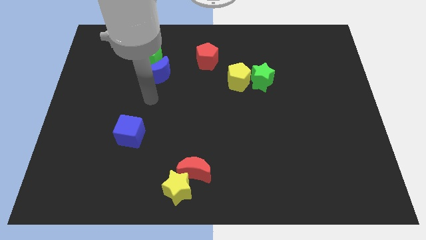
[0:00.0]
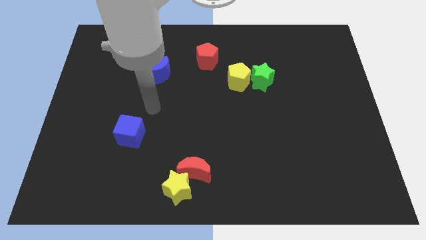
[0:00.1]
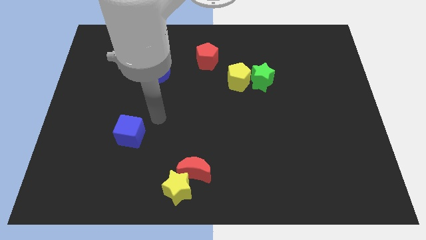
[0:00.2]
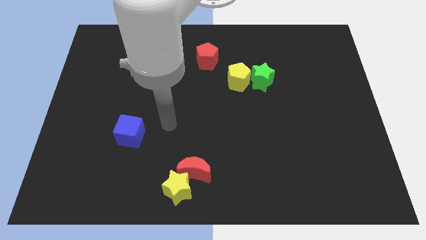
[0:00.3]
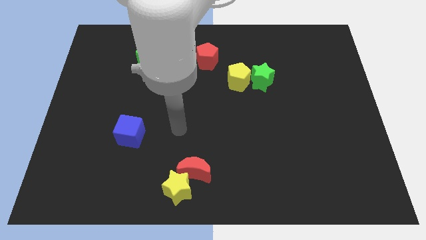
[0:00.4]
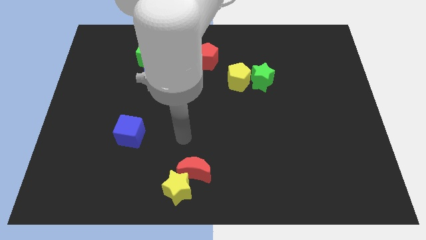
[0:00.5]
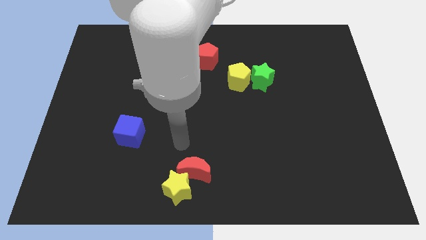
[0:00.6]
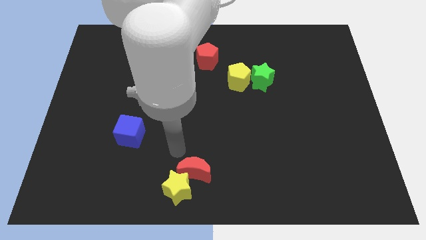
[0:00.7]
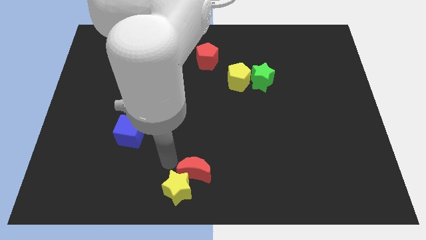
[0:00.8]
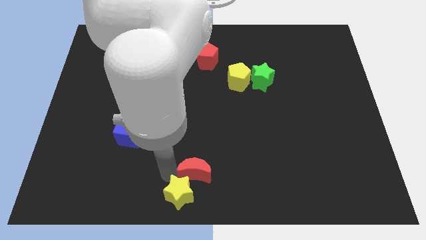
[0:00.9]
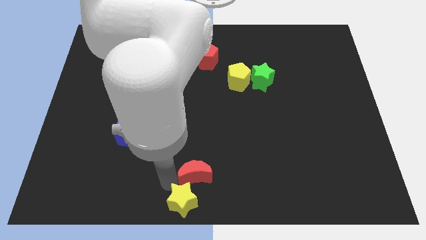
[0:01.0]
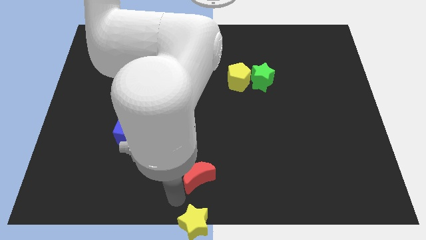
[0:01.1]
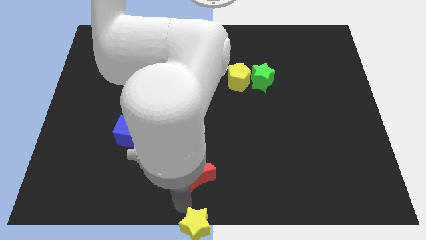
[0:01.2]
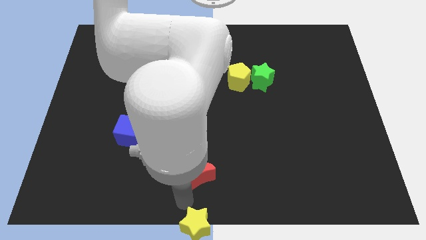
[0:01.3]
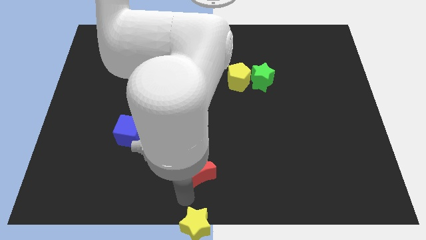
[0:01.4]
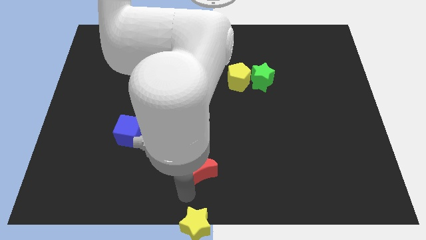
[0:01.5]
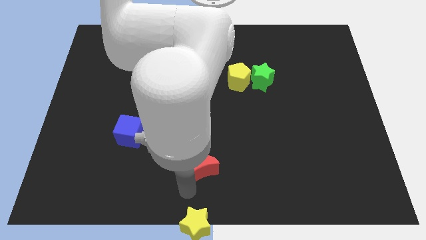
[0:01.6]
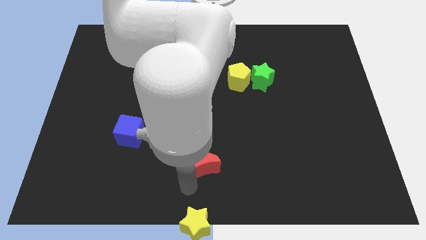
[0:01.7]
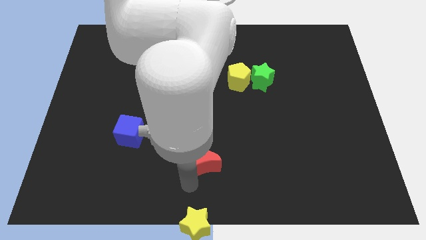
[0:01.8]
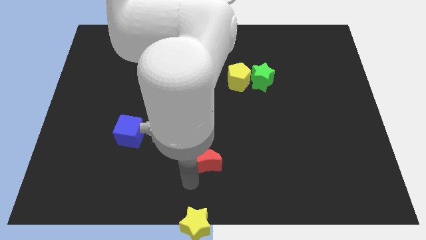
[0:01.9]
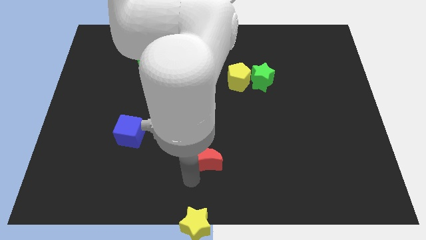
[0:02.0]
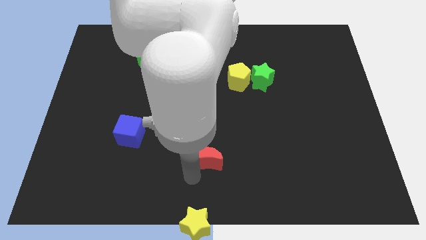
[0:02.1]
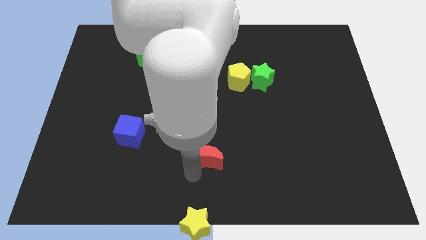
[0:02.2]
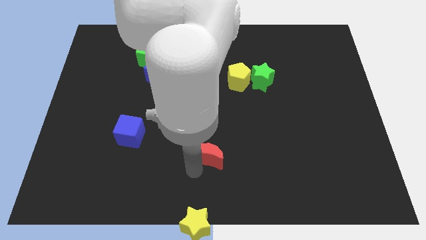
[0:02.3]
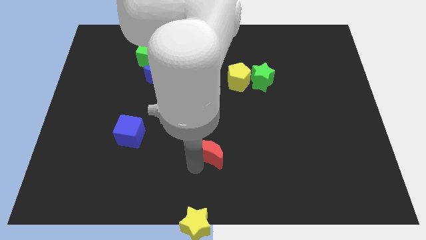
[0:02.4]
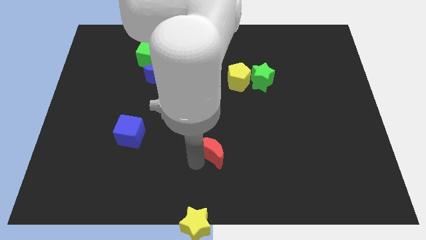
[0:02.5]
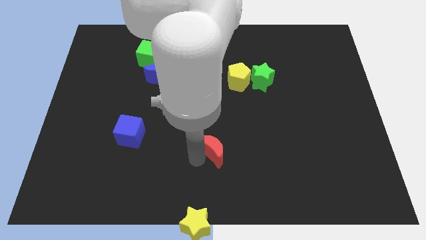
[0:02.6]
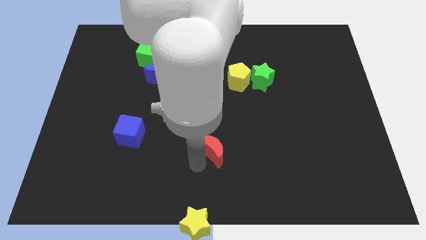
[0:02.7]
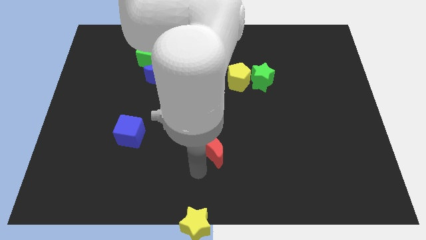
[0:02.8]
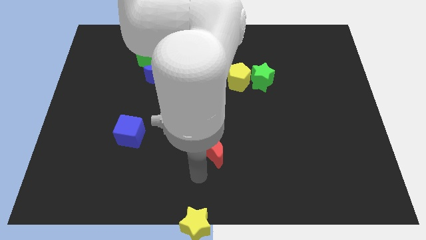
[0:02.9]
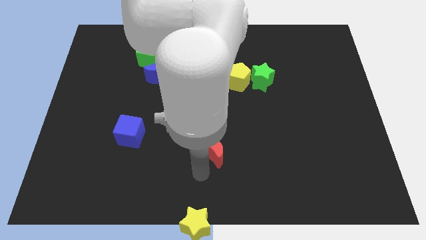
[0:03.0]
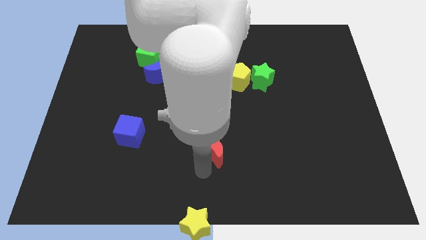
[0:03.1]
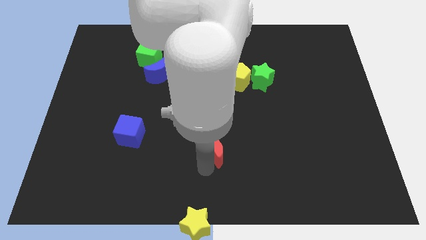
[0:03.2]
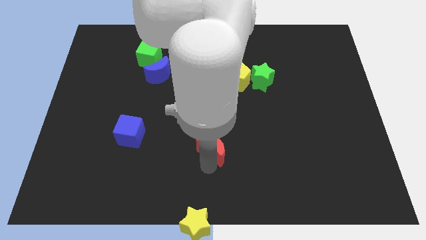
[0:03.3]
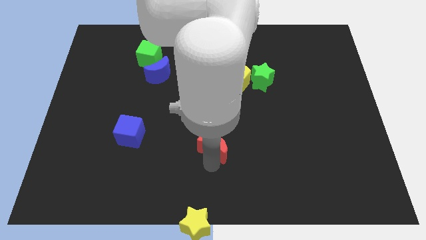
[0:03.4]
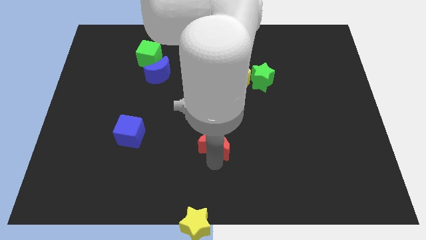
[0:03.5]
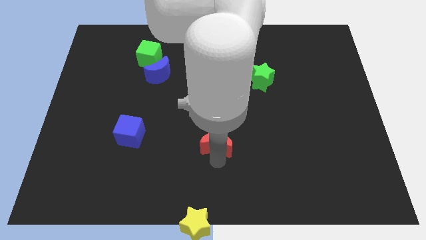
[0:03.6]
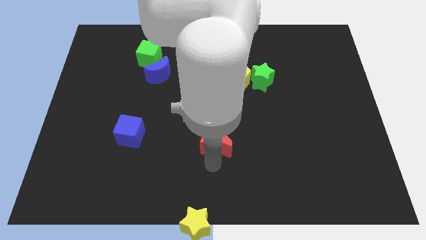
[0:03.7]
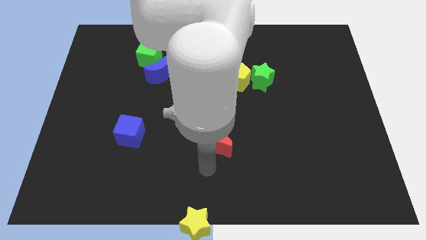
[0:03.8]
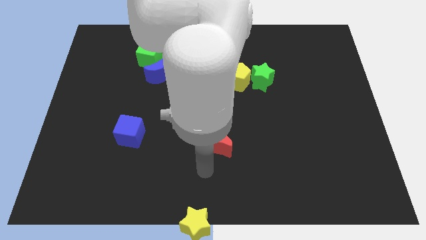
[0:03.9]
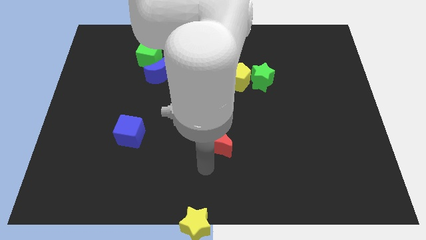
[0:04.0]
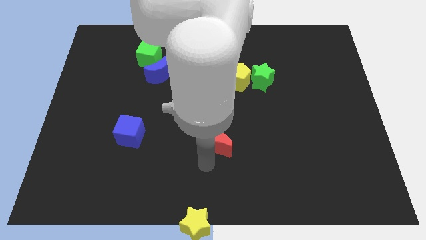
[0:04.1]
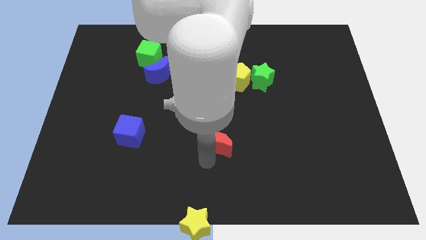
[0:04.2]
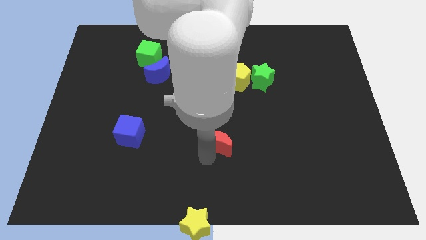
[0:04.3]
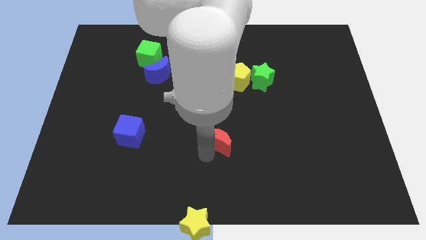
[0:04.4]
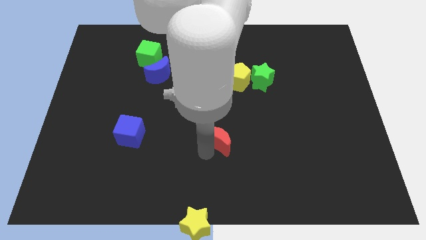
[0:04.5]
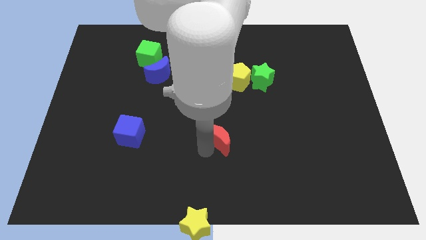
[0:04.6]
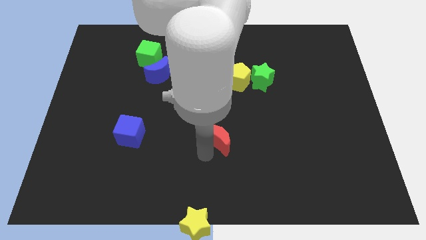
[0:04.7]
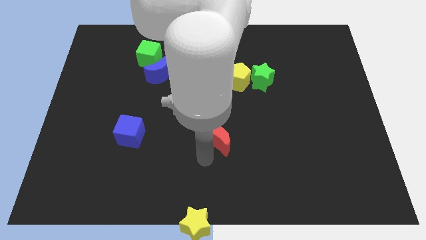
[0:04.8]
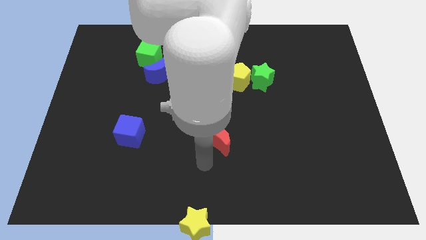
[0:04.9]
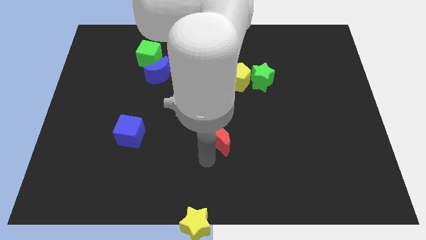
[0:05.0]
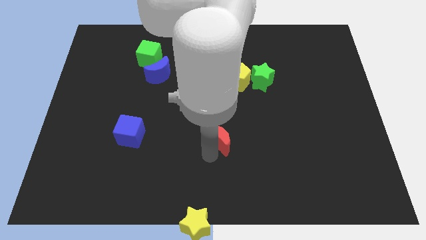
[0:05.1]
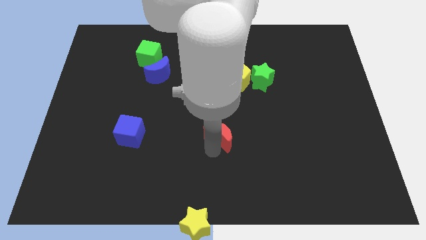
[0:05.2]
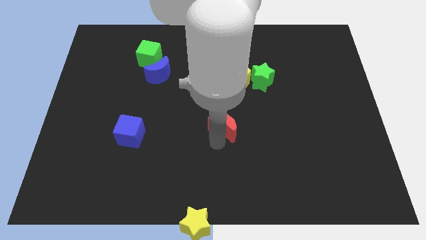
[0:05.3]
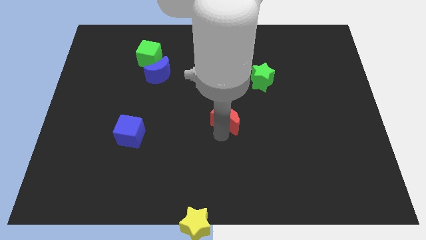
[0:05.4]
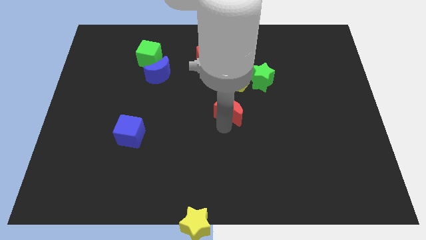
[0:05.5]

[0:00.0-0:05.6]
move the red moon to the bottom left of the green star

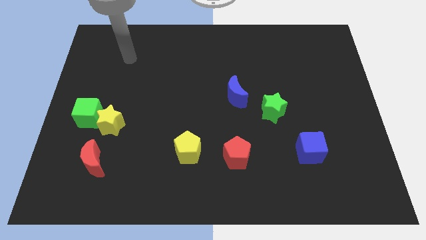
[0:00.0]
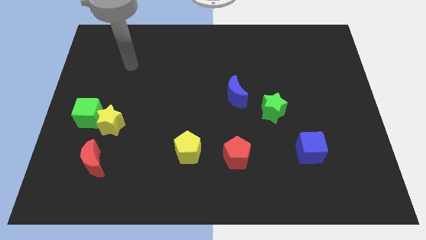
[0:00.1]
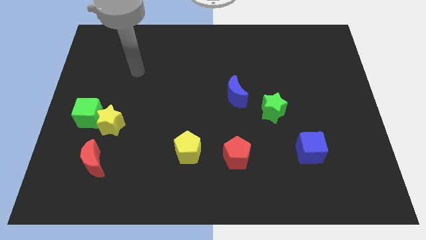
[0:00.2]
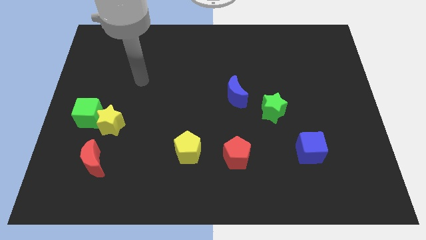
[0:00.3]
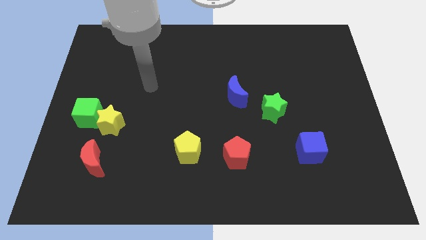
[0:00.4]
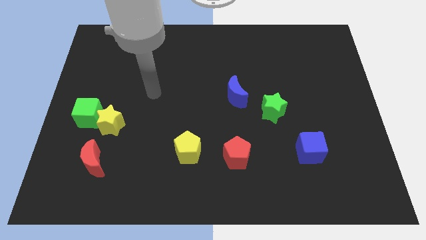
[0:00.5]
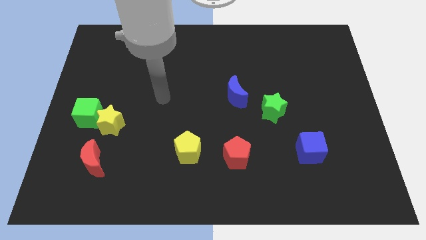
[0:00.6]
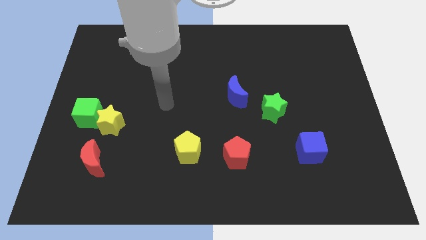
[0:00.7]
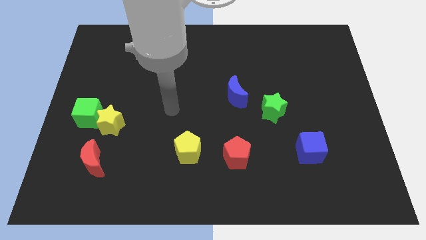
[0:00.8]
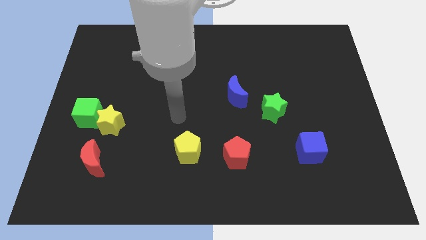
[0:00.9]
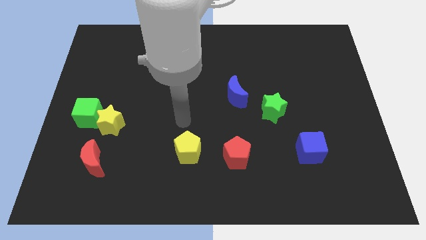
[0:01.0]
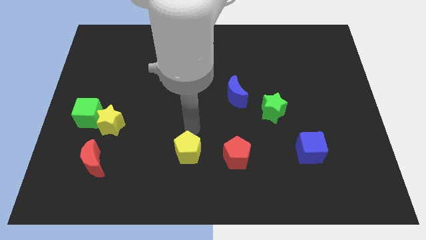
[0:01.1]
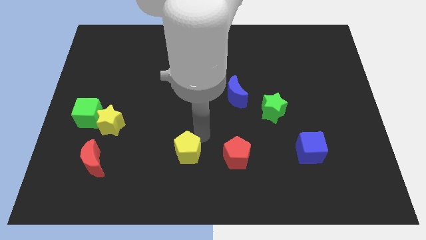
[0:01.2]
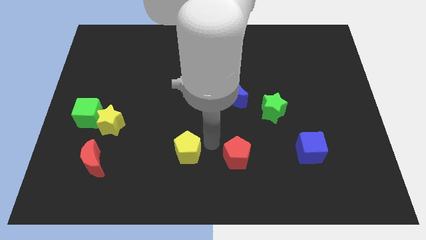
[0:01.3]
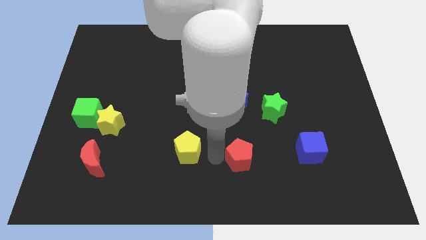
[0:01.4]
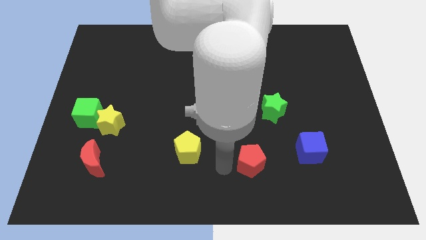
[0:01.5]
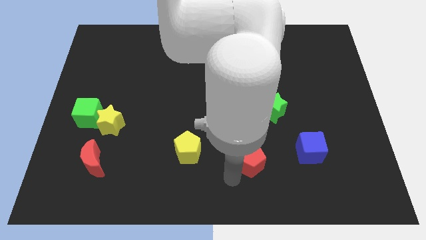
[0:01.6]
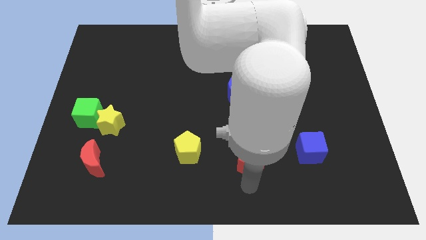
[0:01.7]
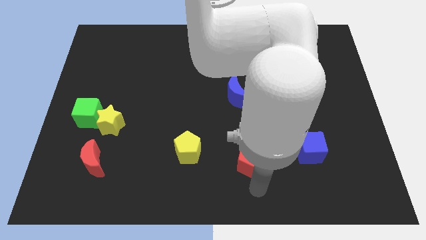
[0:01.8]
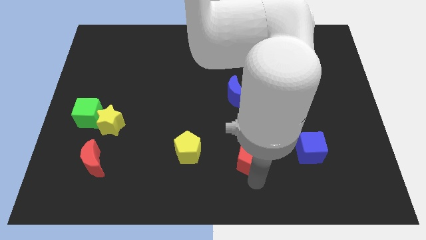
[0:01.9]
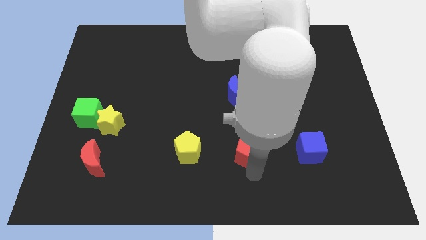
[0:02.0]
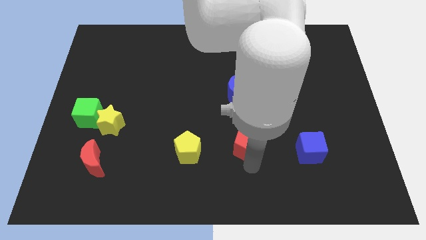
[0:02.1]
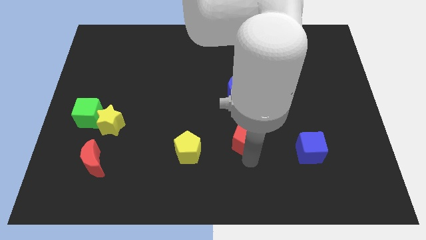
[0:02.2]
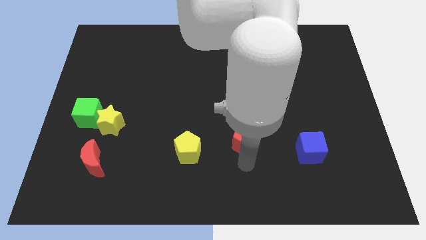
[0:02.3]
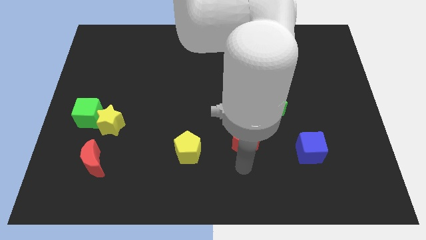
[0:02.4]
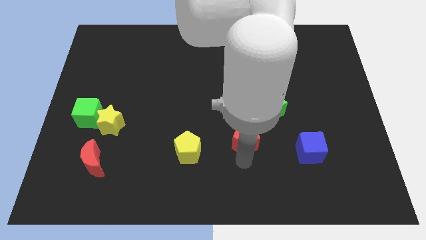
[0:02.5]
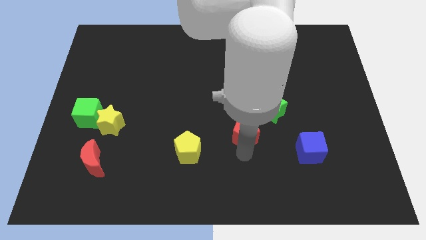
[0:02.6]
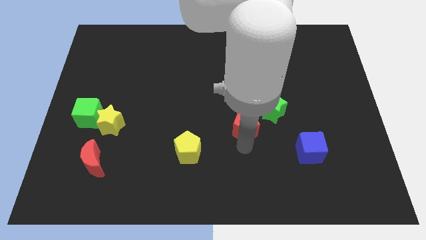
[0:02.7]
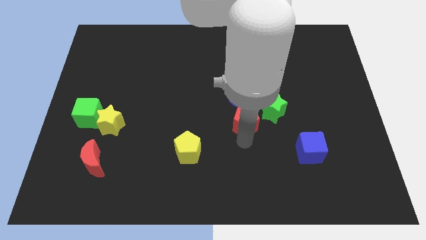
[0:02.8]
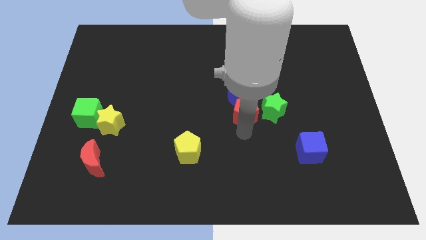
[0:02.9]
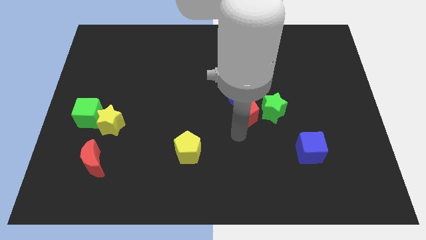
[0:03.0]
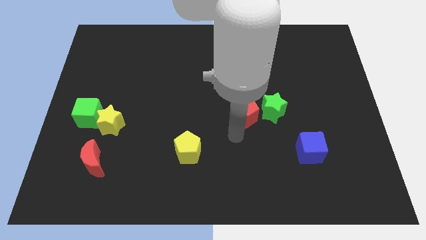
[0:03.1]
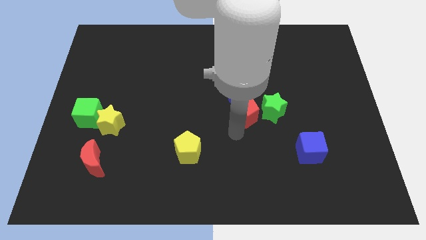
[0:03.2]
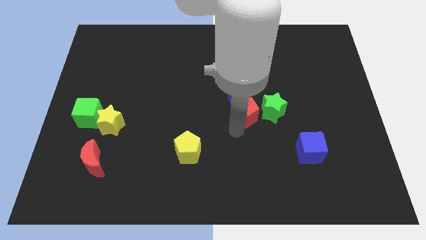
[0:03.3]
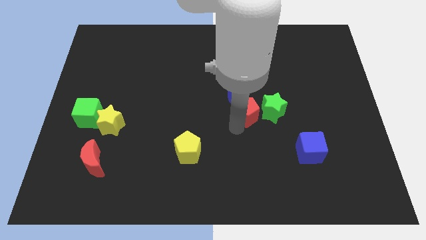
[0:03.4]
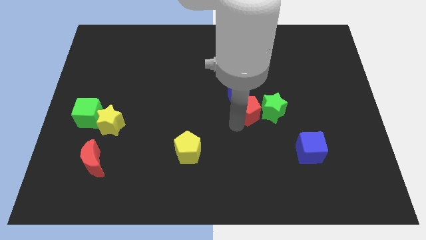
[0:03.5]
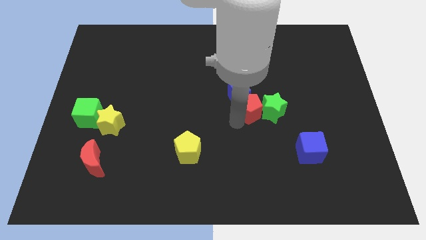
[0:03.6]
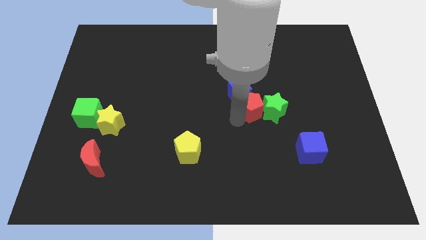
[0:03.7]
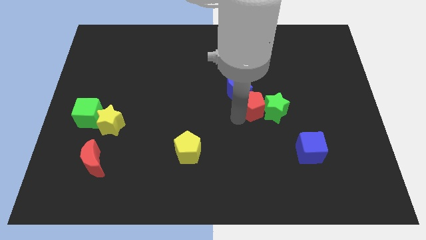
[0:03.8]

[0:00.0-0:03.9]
move the red pentagon to the right side of the blue moon
